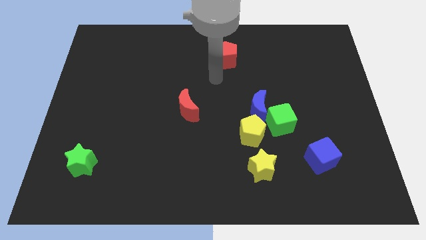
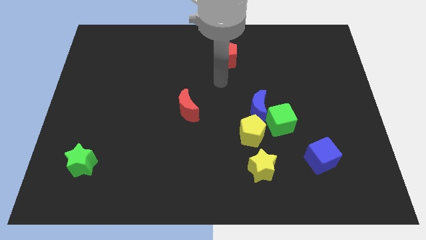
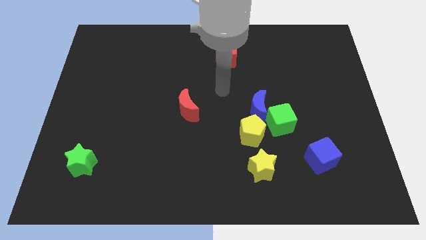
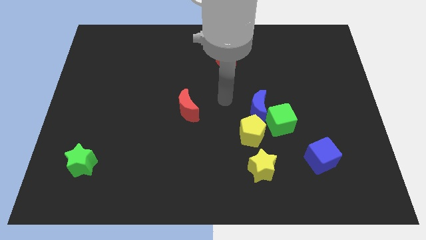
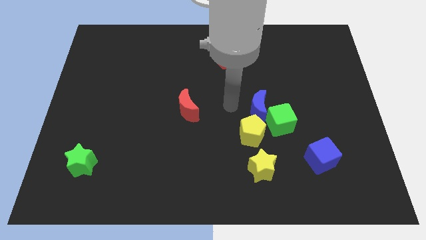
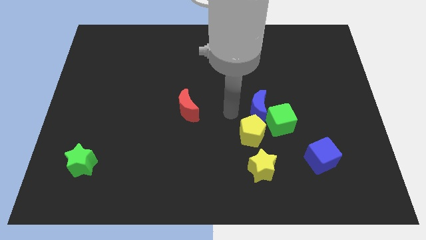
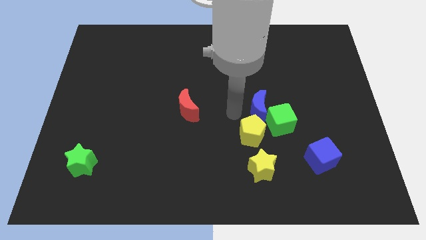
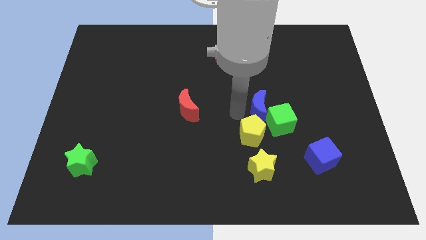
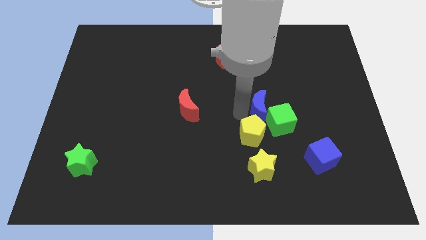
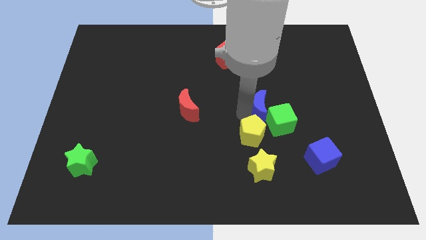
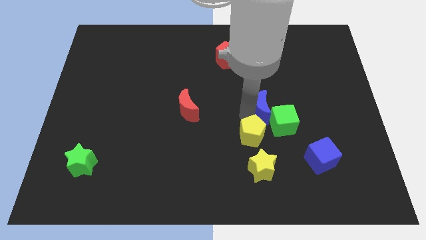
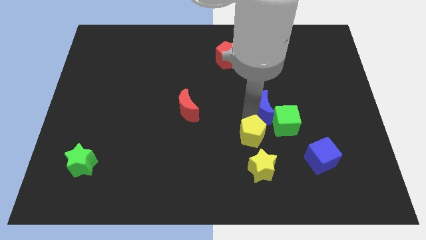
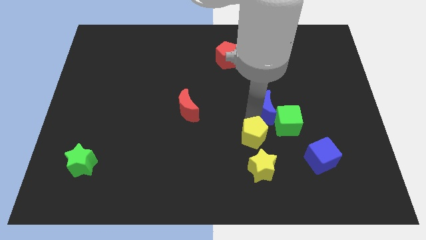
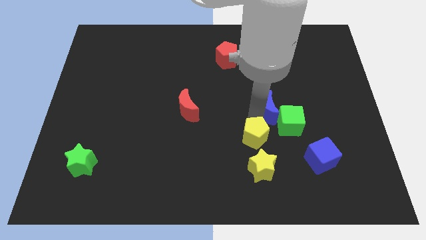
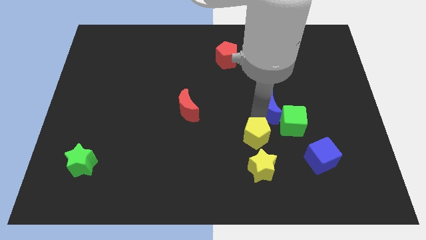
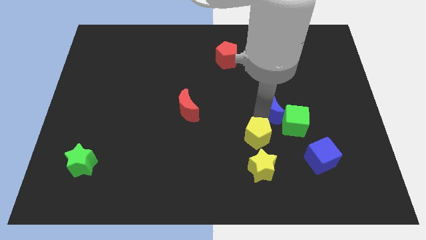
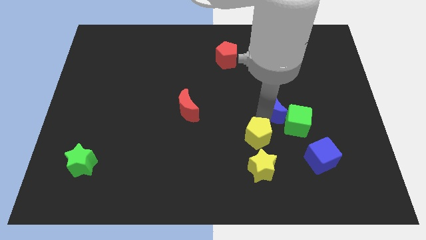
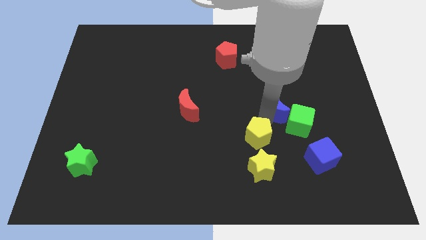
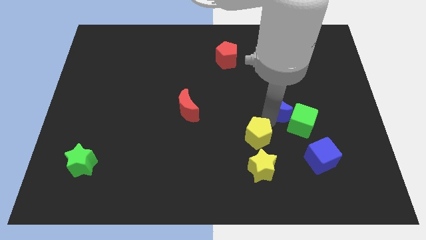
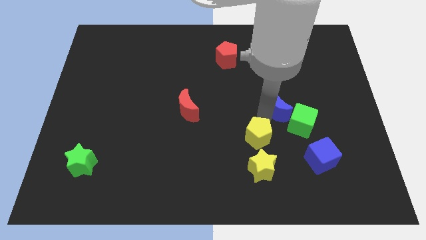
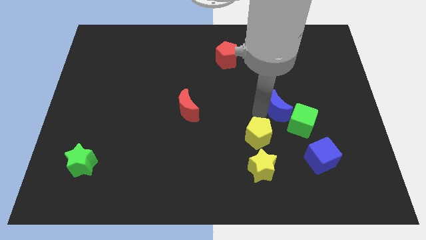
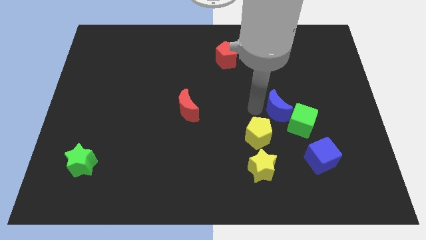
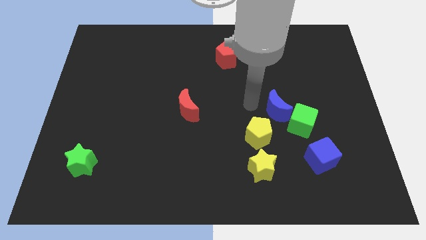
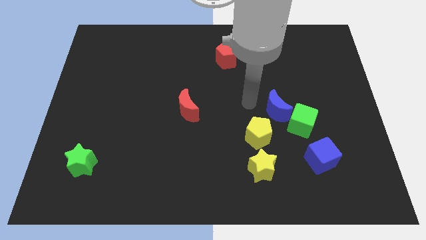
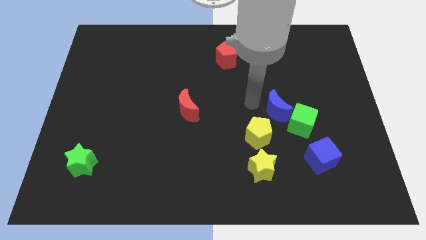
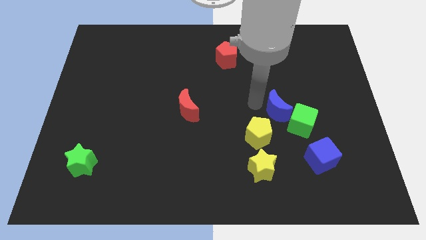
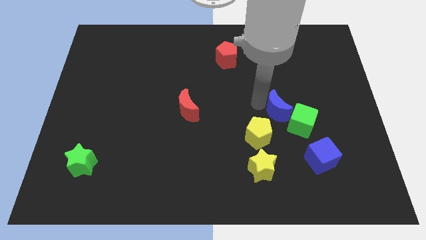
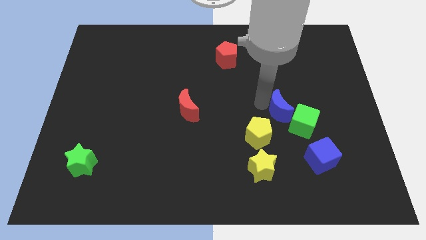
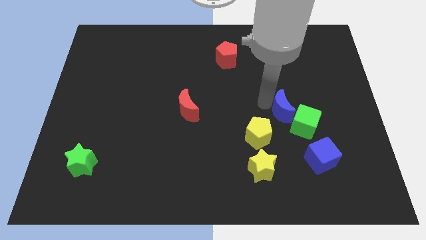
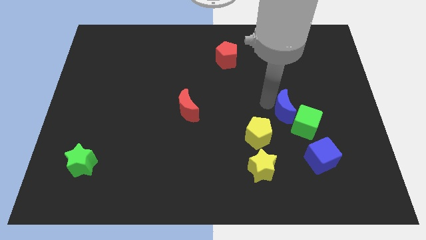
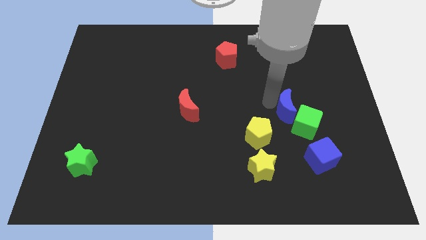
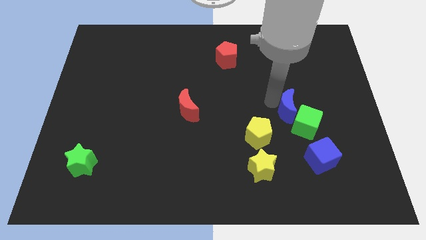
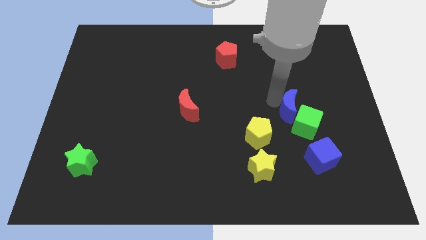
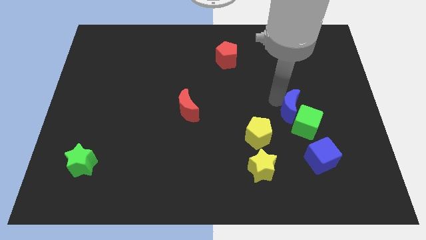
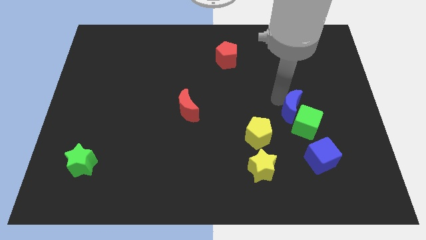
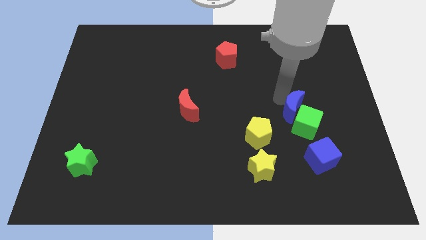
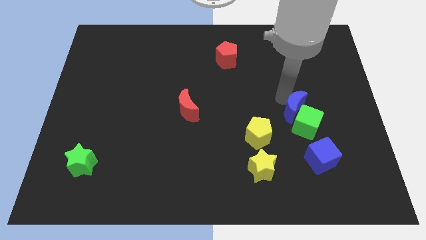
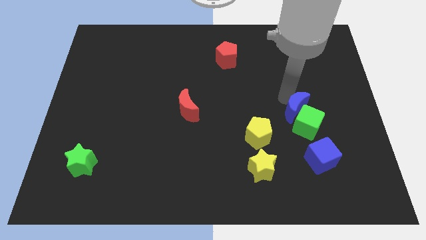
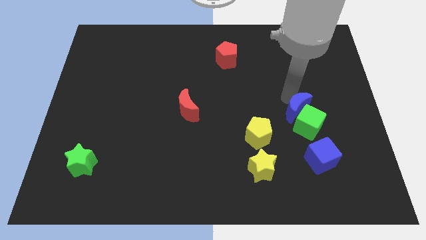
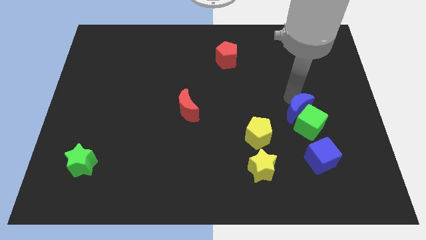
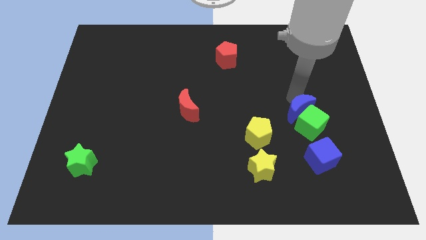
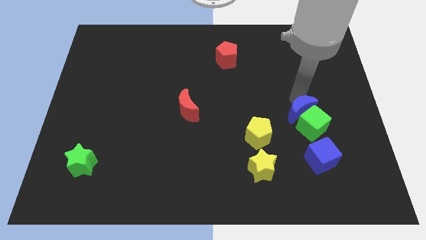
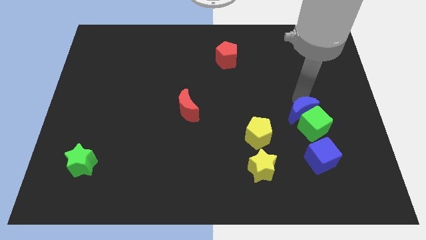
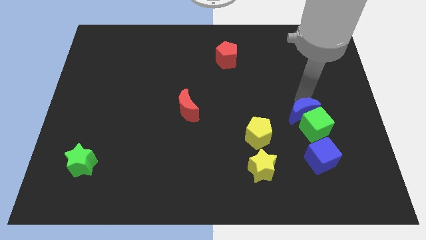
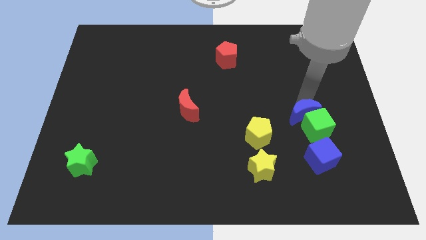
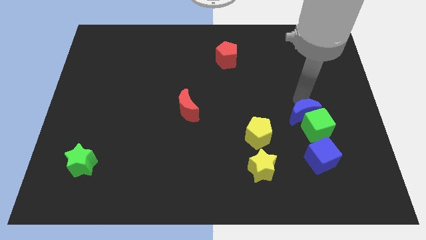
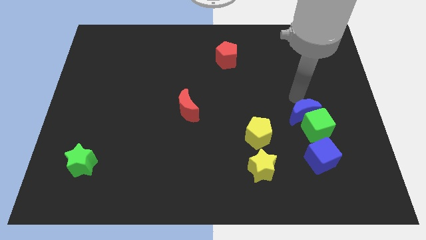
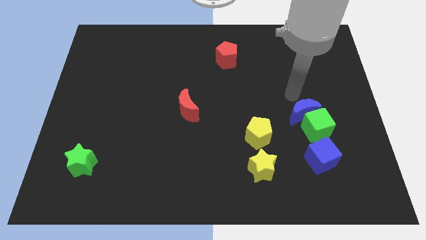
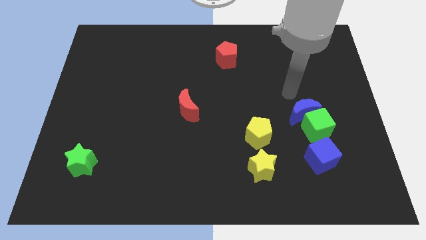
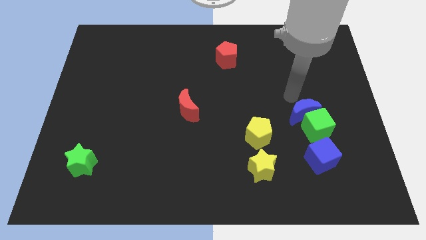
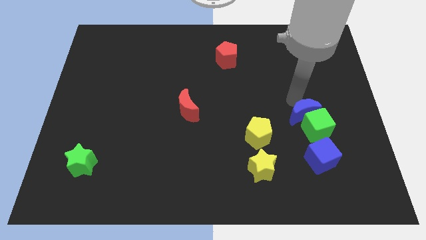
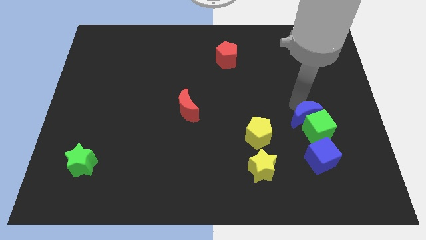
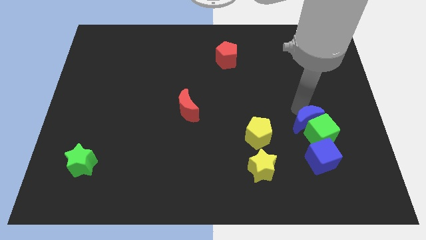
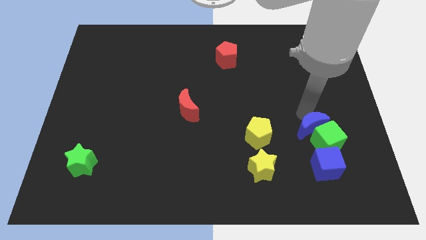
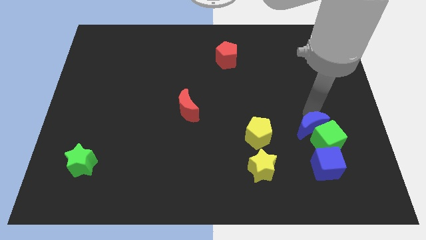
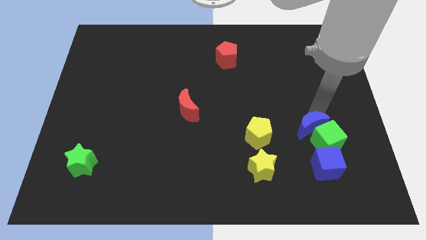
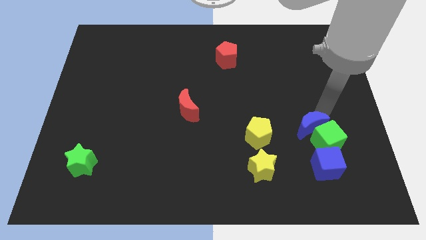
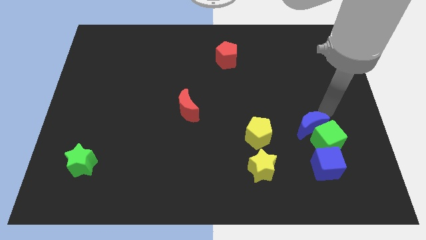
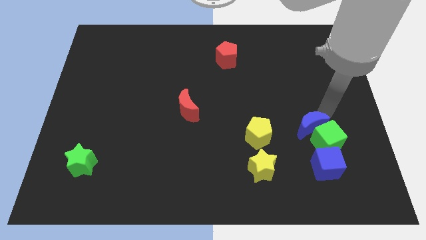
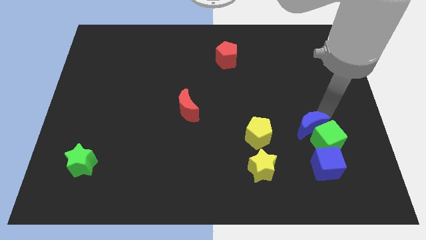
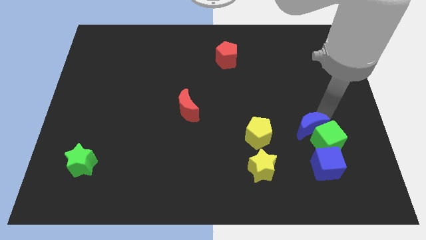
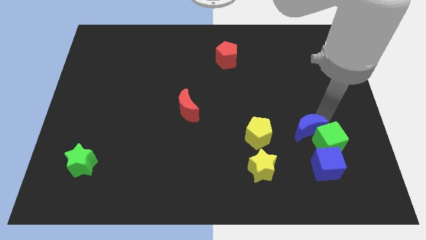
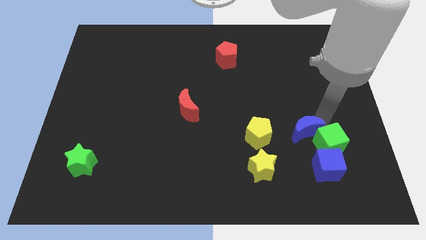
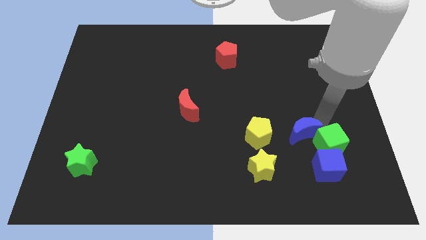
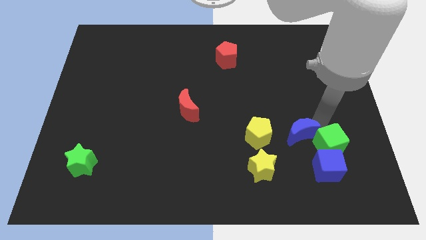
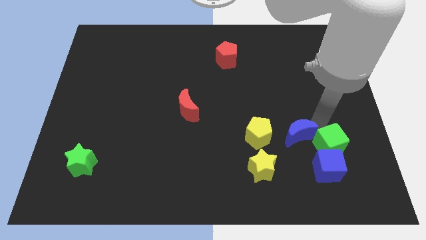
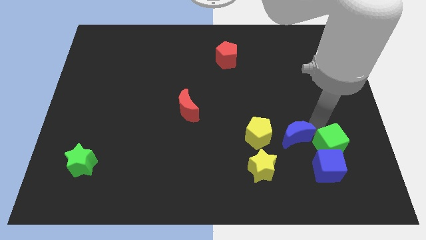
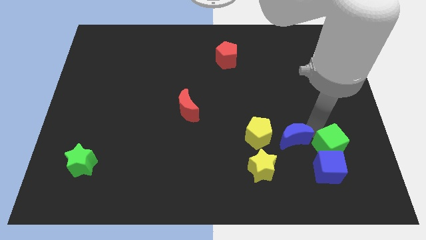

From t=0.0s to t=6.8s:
push the blue moon diagonally down and to the right of the yellow pentagon

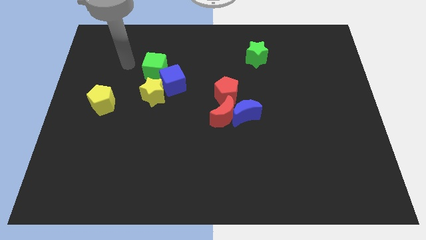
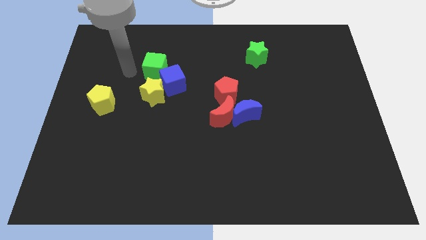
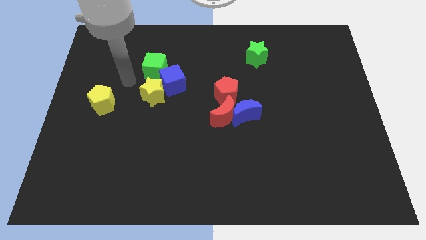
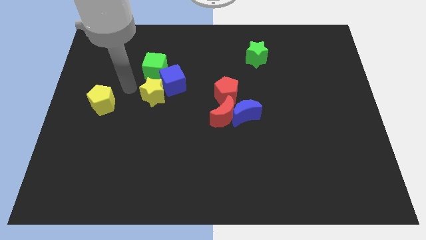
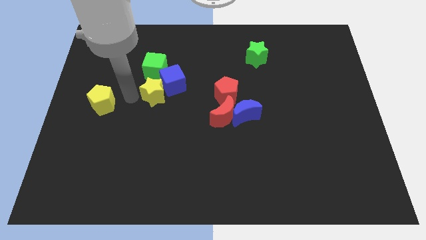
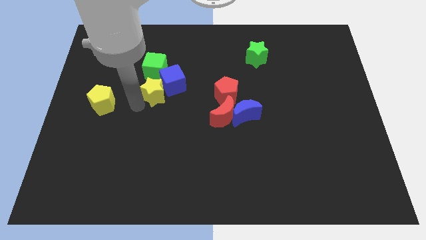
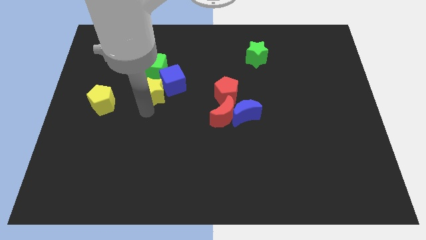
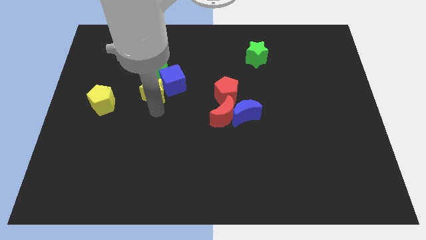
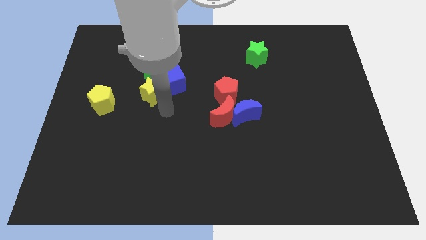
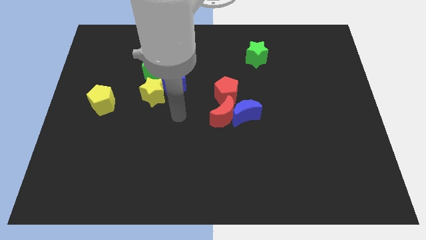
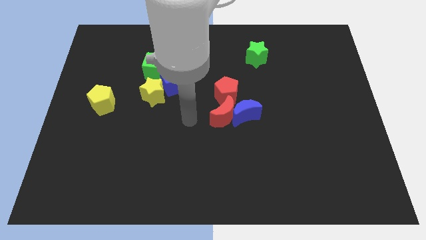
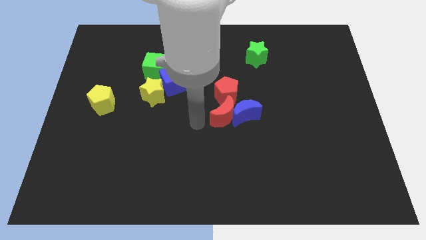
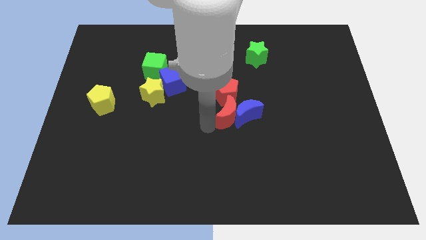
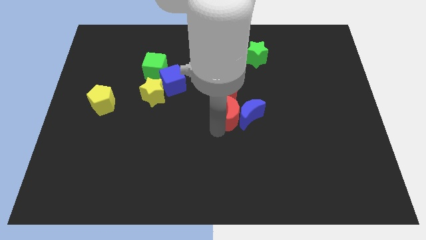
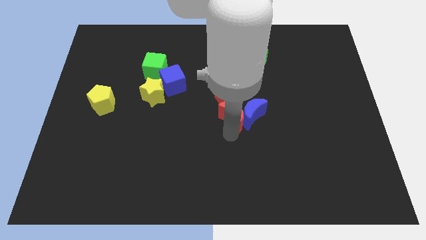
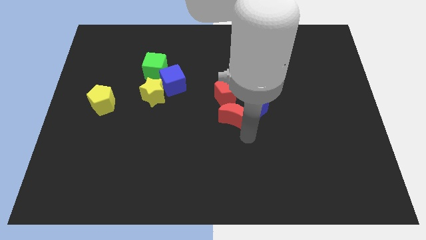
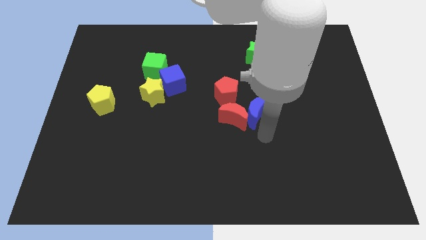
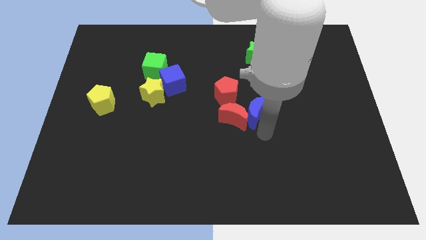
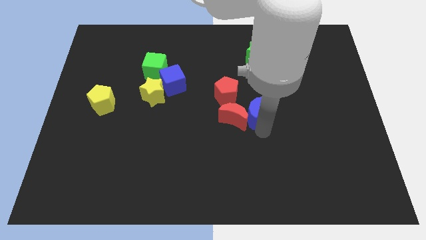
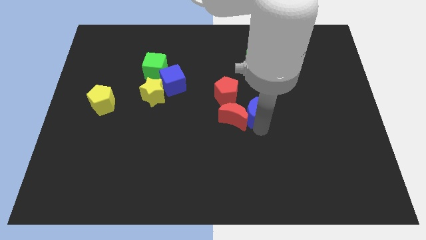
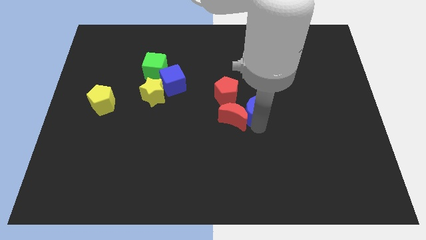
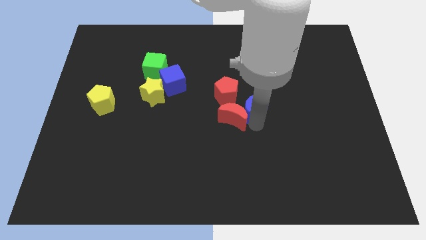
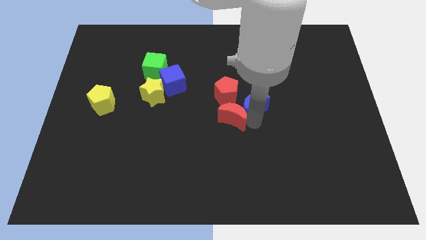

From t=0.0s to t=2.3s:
put the blue moon to the top of the red moon
